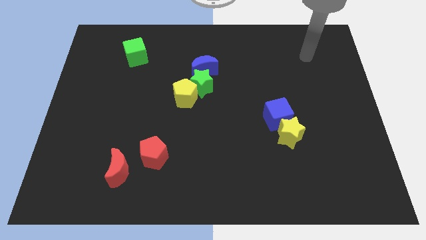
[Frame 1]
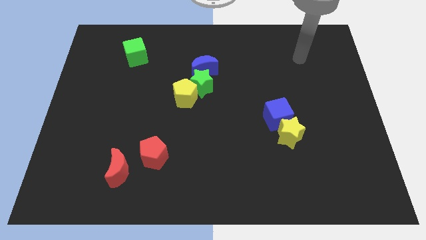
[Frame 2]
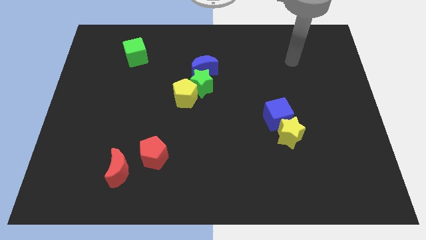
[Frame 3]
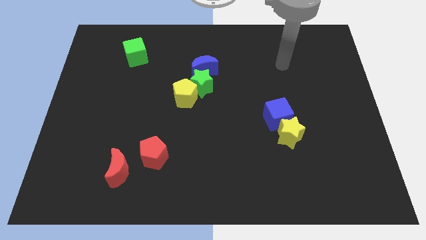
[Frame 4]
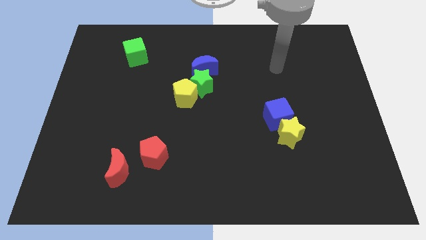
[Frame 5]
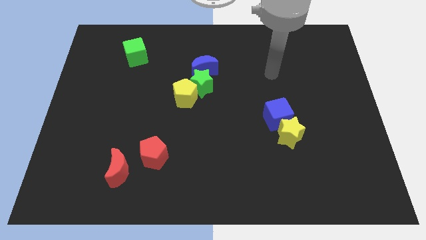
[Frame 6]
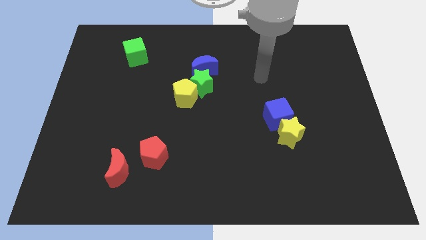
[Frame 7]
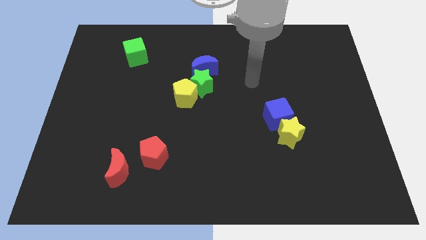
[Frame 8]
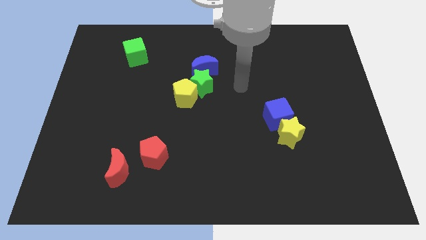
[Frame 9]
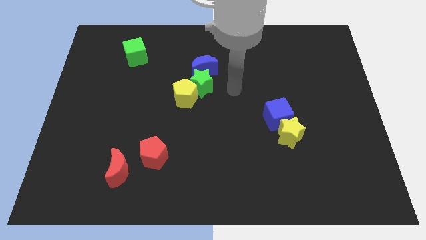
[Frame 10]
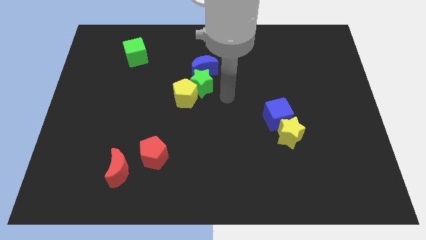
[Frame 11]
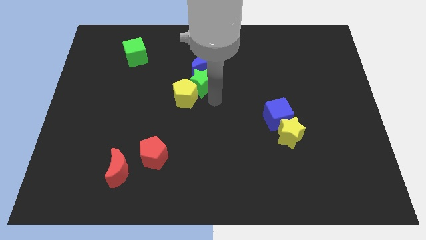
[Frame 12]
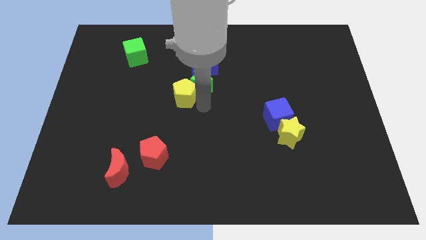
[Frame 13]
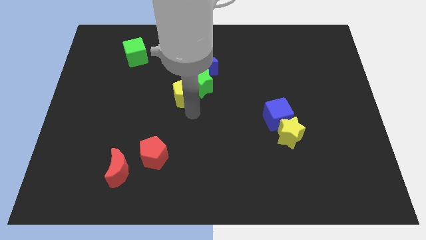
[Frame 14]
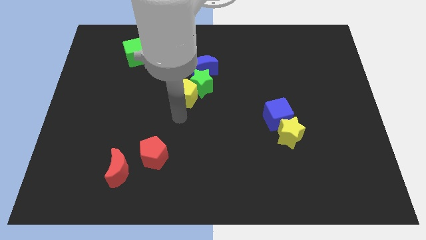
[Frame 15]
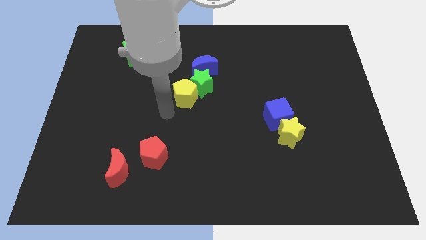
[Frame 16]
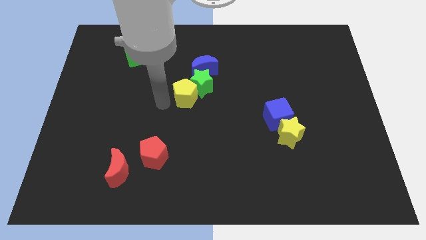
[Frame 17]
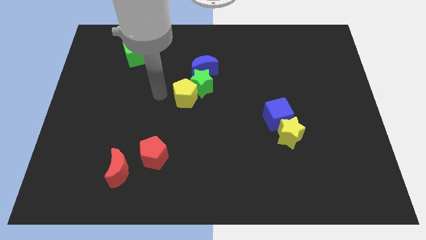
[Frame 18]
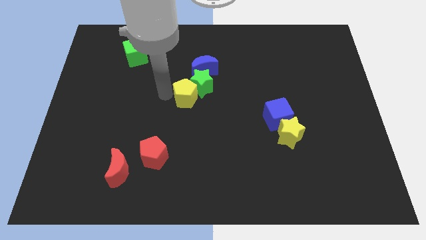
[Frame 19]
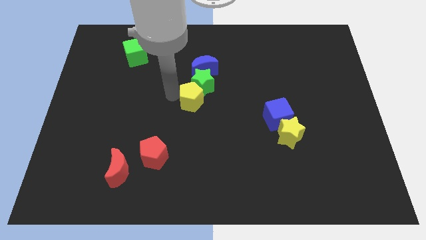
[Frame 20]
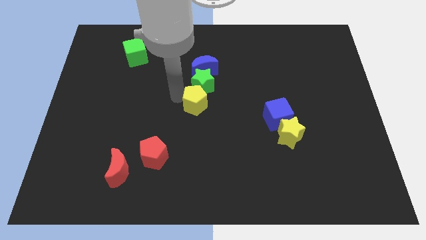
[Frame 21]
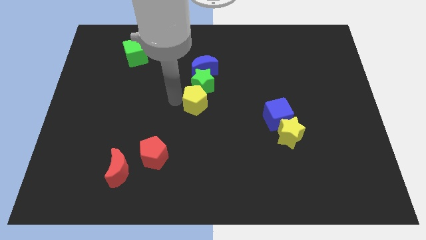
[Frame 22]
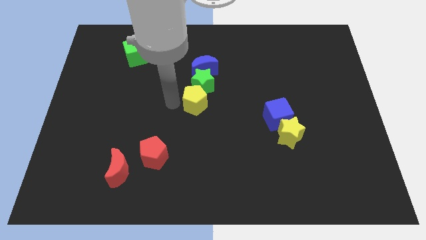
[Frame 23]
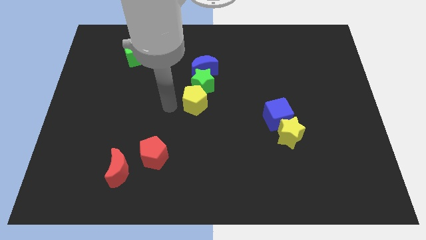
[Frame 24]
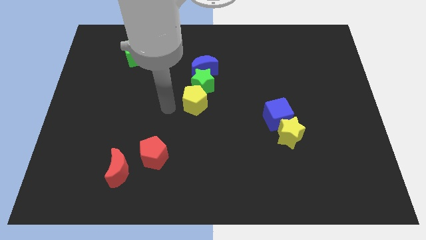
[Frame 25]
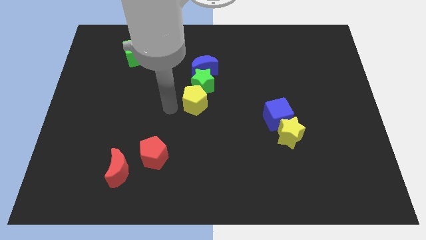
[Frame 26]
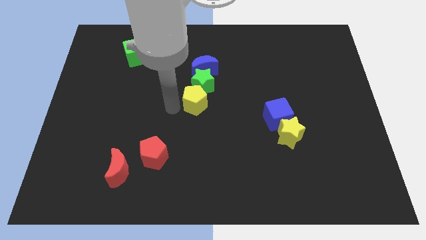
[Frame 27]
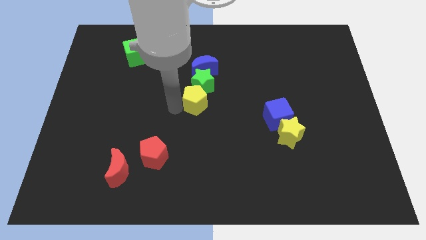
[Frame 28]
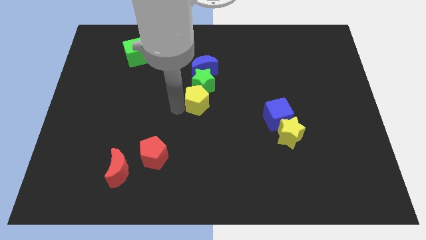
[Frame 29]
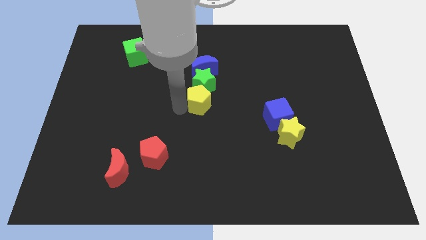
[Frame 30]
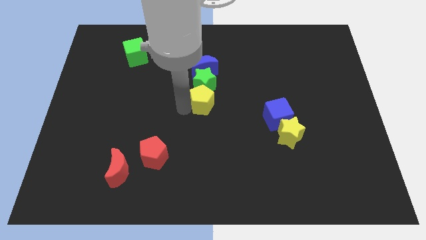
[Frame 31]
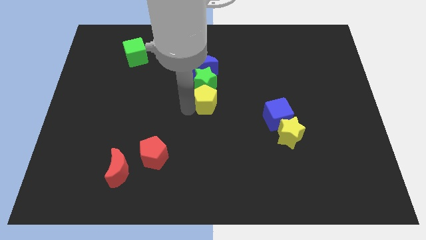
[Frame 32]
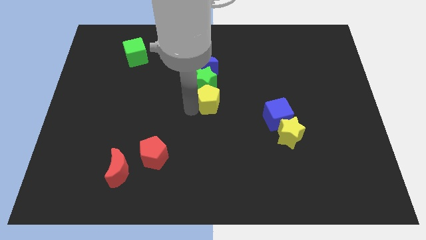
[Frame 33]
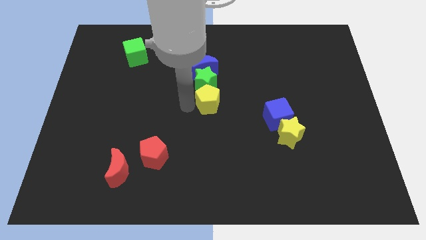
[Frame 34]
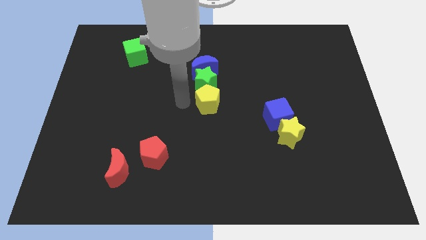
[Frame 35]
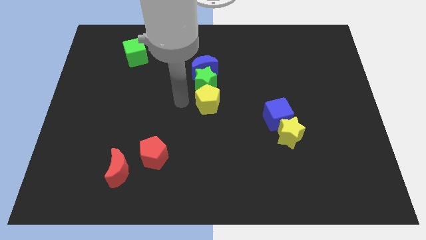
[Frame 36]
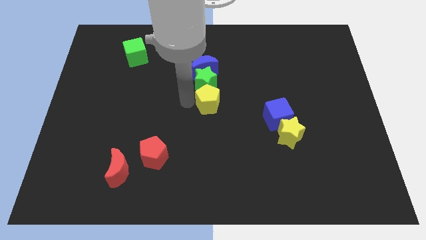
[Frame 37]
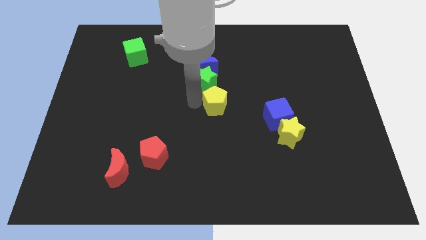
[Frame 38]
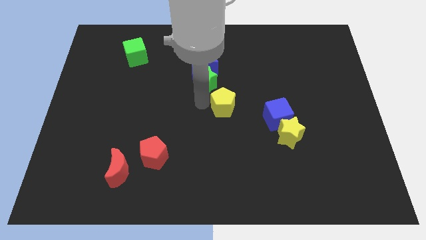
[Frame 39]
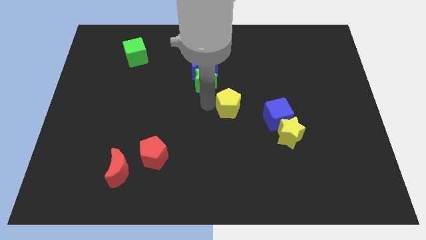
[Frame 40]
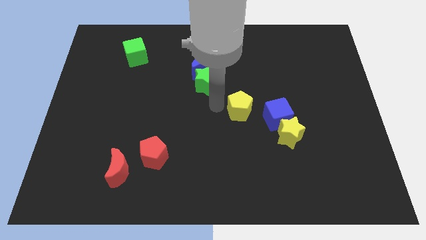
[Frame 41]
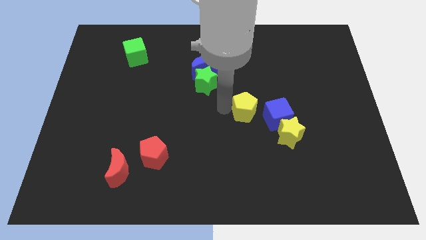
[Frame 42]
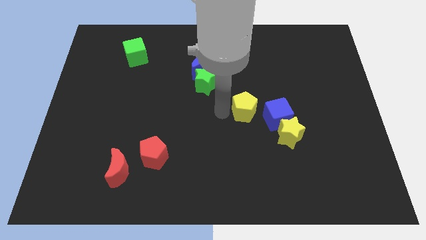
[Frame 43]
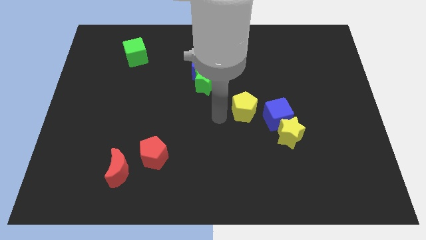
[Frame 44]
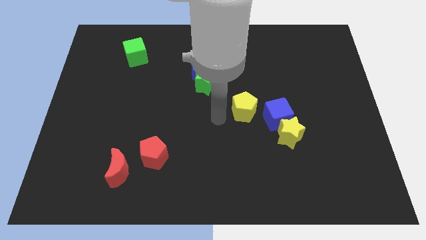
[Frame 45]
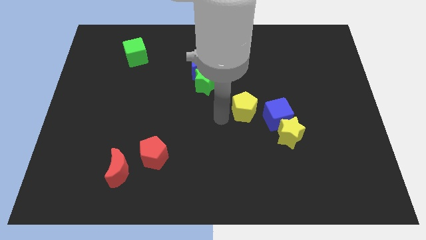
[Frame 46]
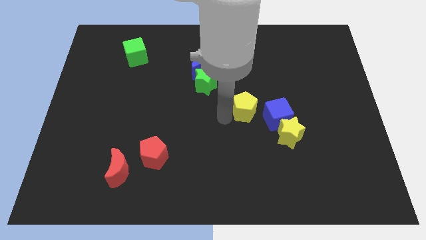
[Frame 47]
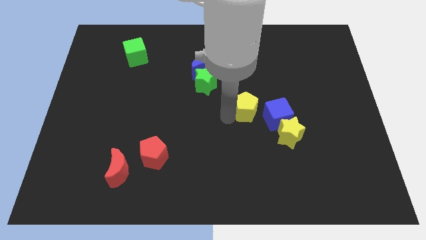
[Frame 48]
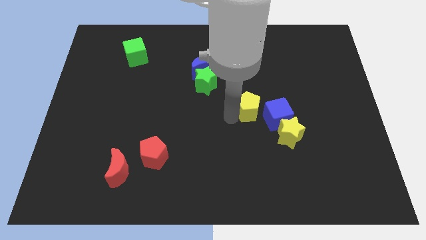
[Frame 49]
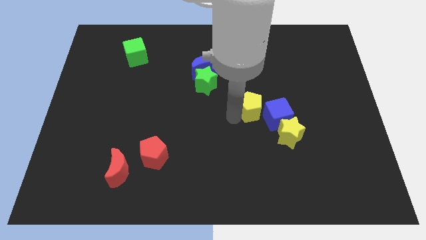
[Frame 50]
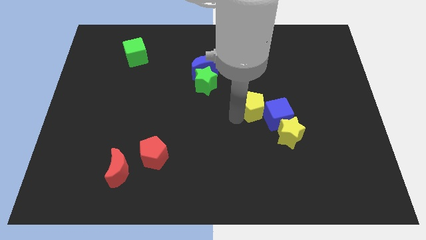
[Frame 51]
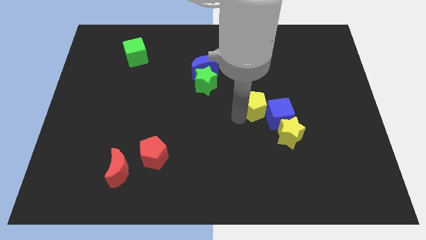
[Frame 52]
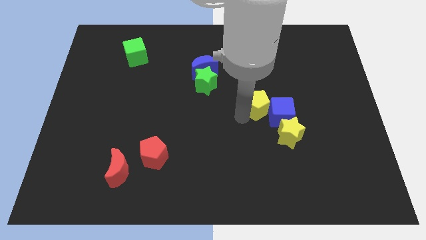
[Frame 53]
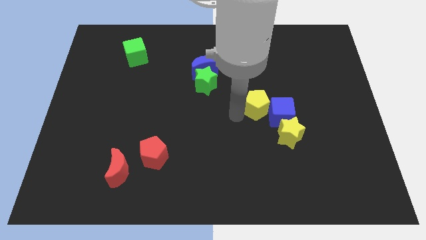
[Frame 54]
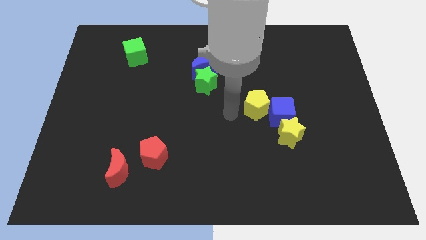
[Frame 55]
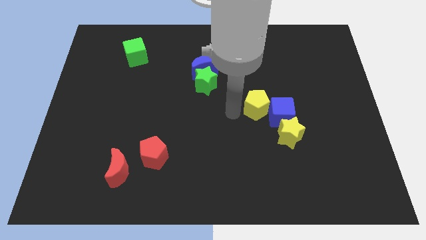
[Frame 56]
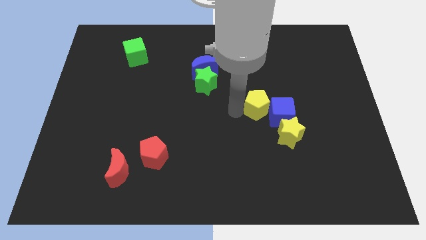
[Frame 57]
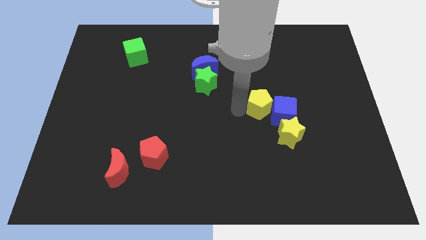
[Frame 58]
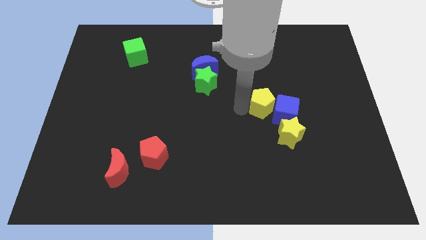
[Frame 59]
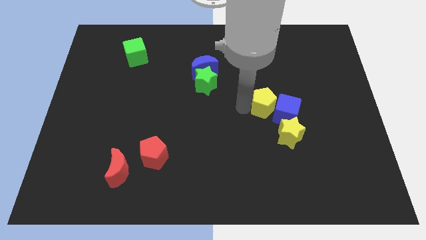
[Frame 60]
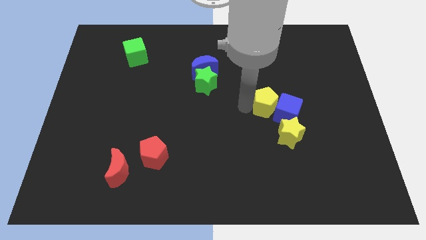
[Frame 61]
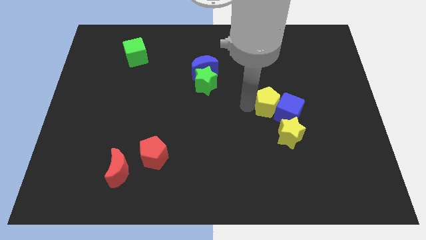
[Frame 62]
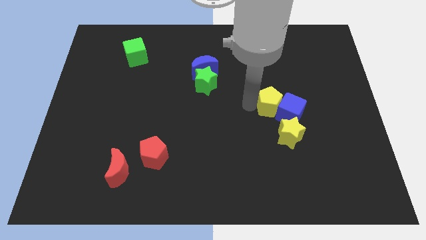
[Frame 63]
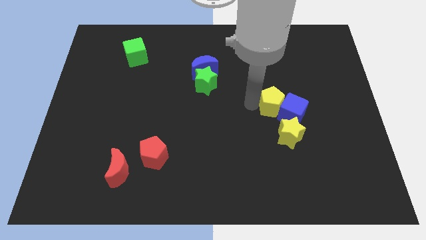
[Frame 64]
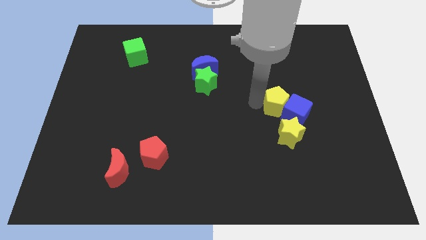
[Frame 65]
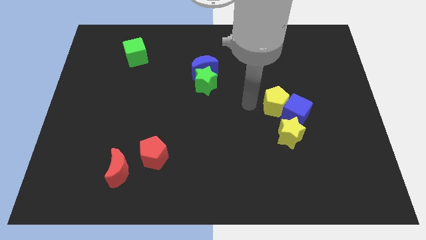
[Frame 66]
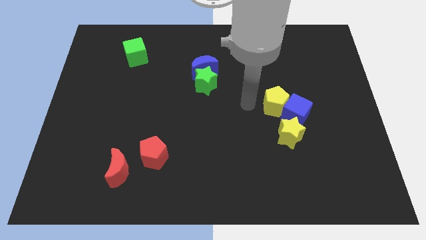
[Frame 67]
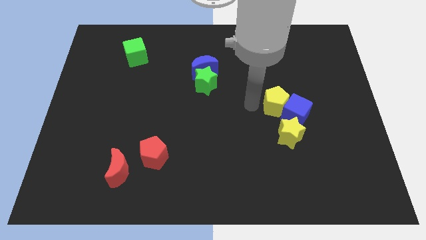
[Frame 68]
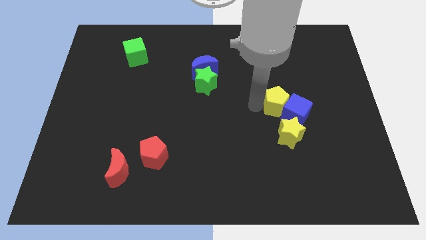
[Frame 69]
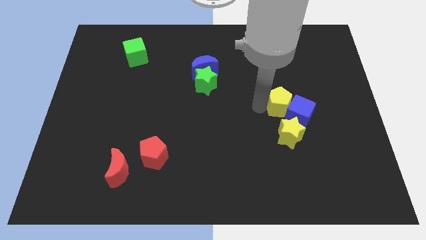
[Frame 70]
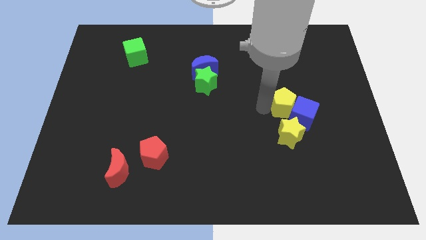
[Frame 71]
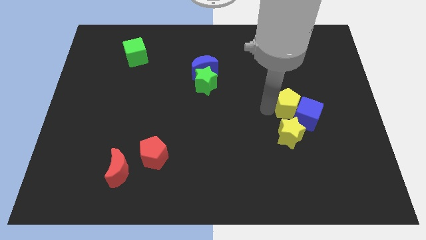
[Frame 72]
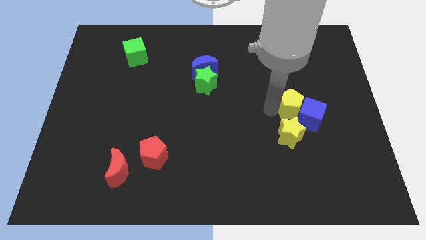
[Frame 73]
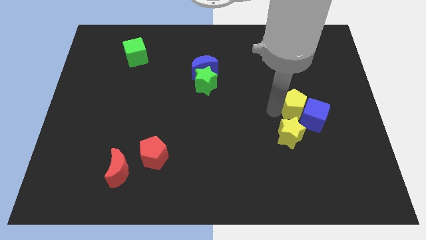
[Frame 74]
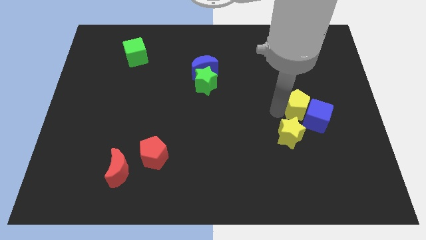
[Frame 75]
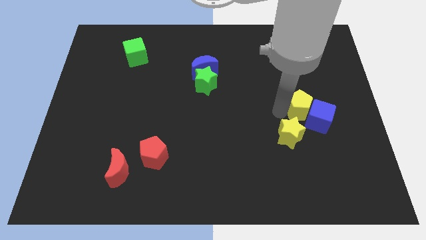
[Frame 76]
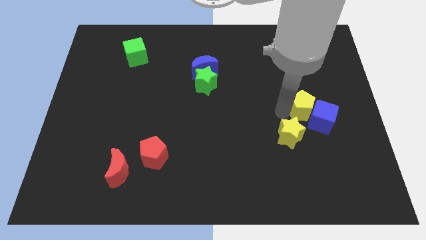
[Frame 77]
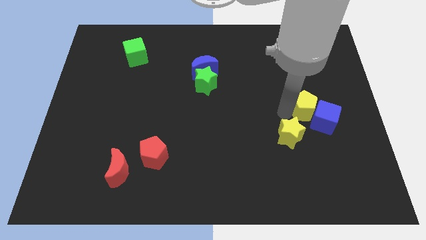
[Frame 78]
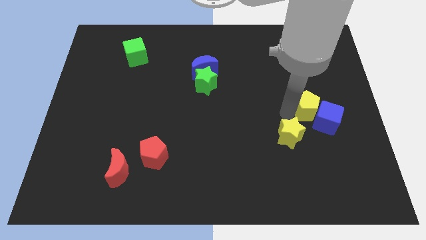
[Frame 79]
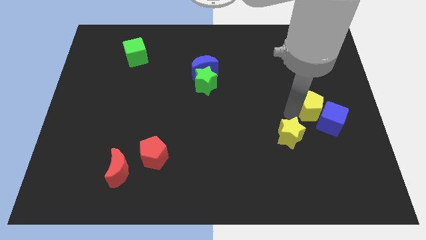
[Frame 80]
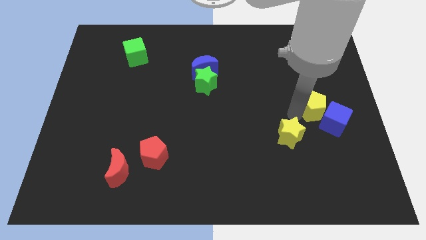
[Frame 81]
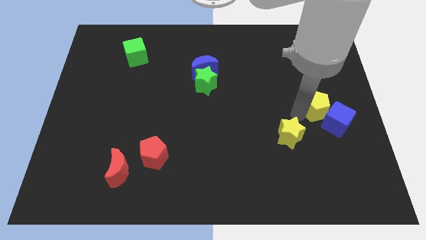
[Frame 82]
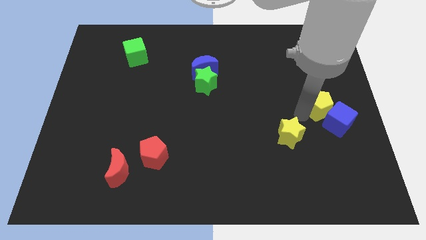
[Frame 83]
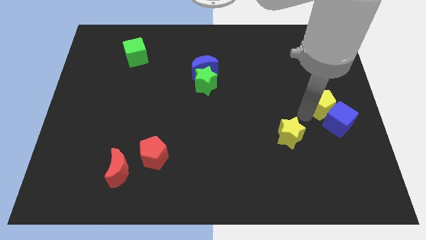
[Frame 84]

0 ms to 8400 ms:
put the yellow pentagon to the right side
